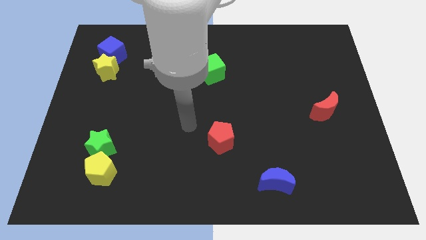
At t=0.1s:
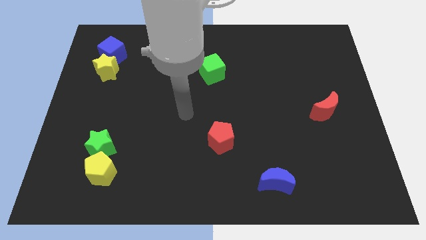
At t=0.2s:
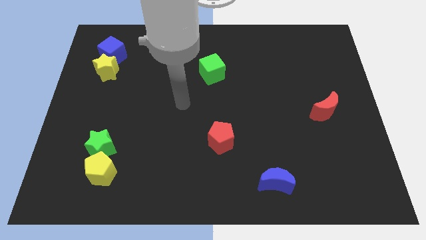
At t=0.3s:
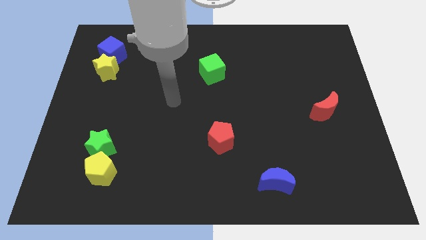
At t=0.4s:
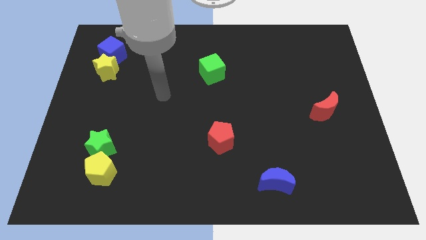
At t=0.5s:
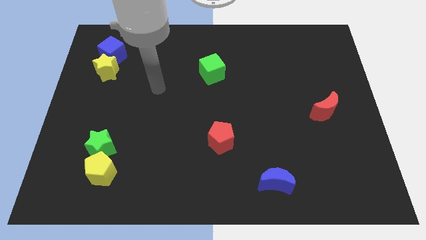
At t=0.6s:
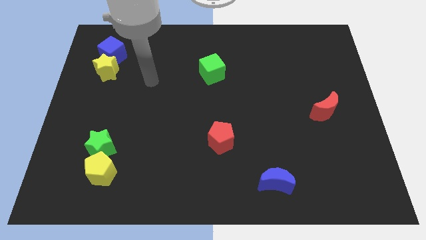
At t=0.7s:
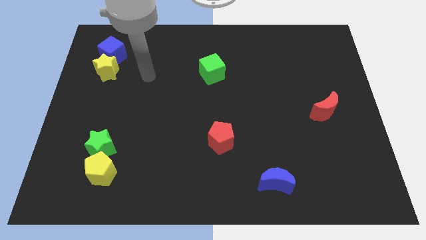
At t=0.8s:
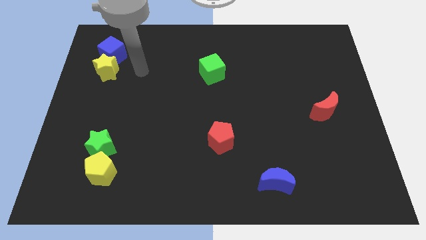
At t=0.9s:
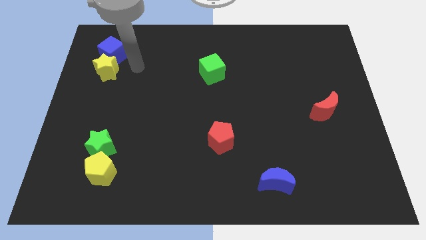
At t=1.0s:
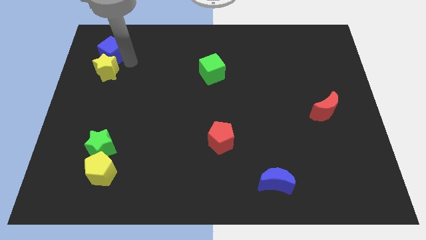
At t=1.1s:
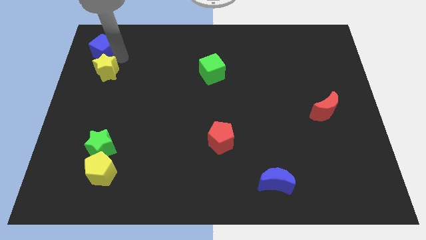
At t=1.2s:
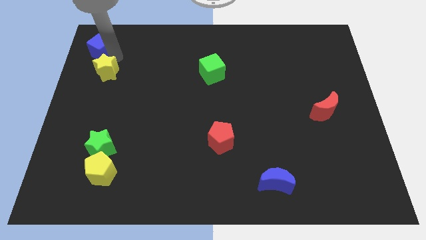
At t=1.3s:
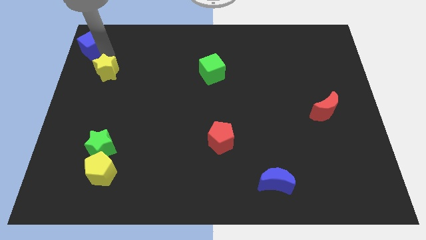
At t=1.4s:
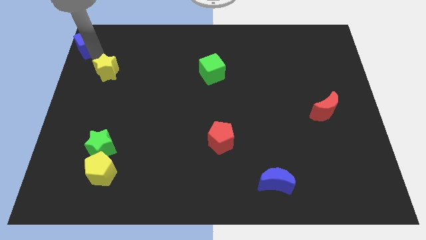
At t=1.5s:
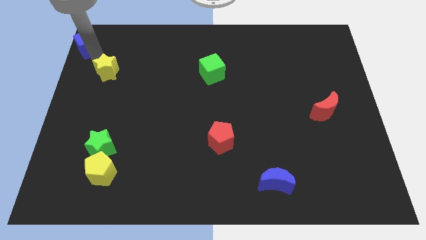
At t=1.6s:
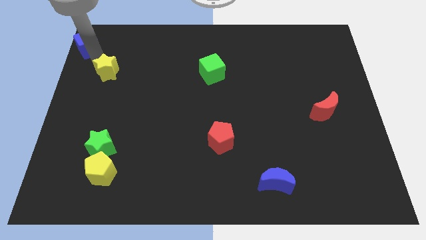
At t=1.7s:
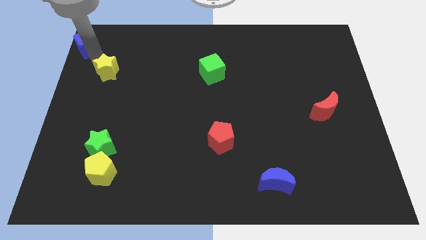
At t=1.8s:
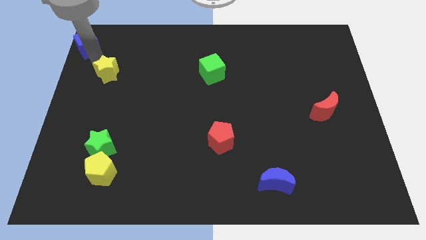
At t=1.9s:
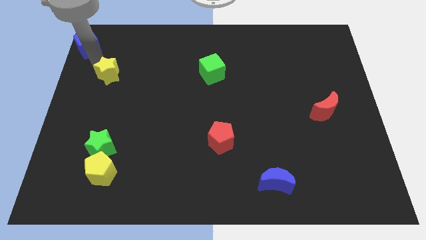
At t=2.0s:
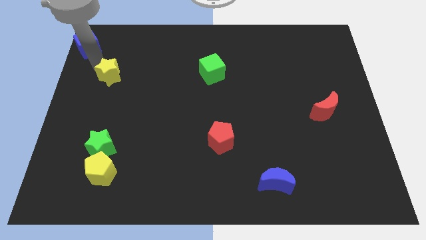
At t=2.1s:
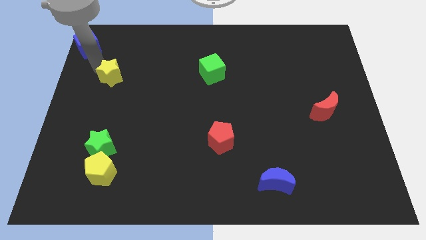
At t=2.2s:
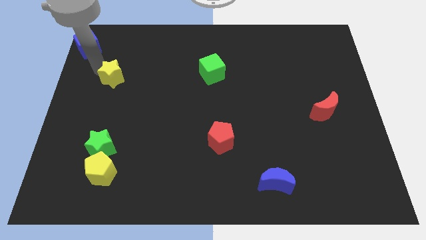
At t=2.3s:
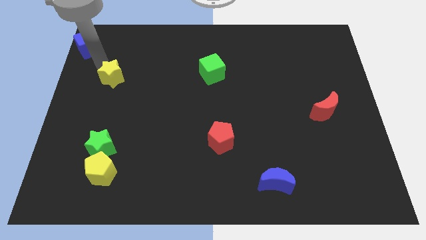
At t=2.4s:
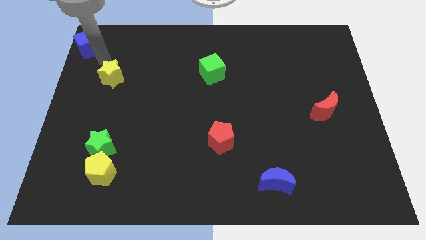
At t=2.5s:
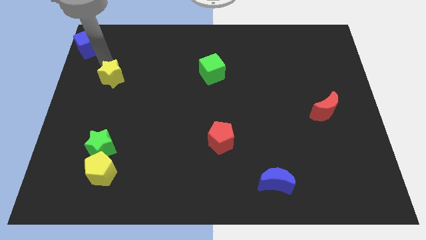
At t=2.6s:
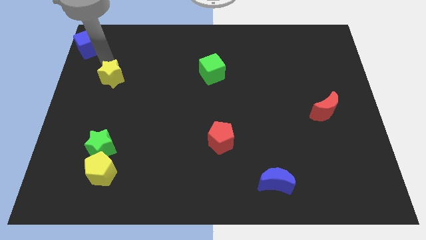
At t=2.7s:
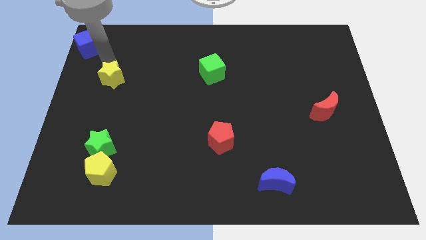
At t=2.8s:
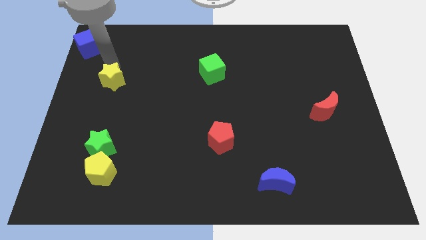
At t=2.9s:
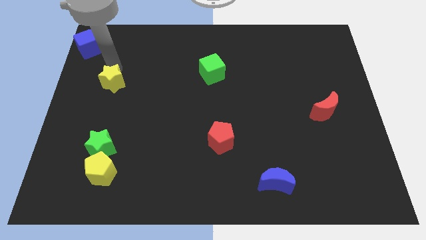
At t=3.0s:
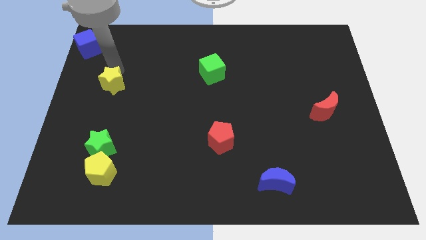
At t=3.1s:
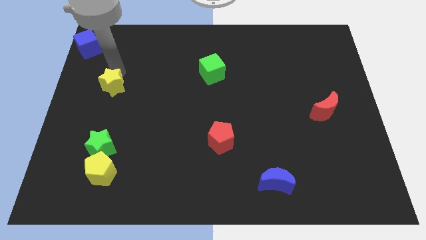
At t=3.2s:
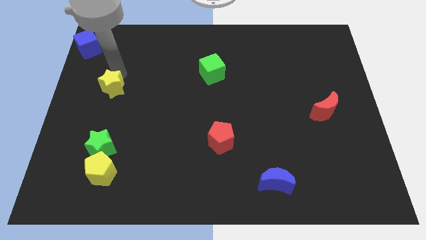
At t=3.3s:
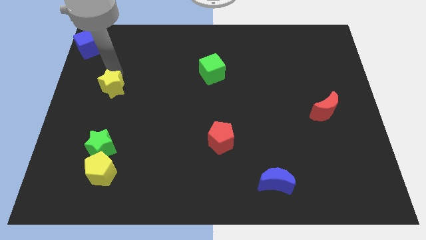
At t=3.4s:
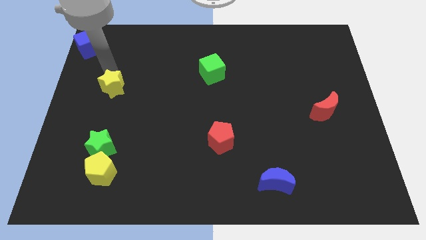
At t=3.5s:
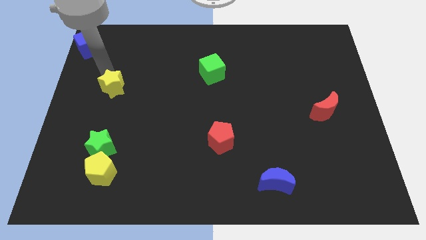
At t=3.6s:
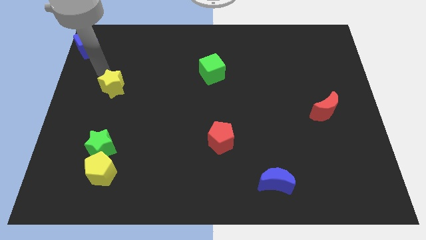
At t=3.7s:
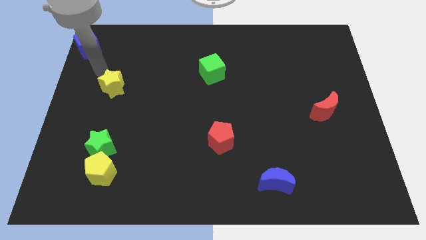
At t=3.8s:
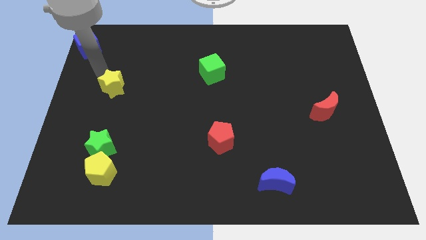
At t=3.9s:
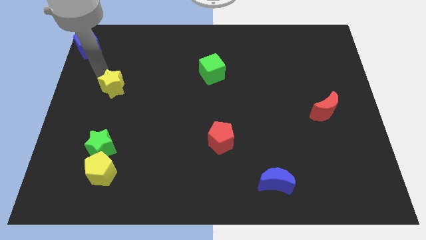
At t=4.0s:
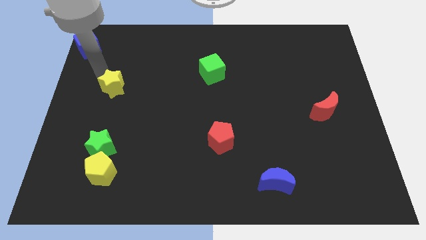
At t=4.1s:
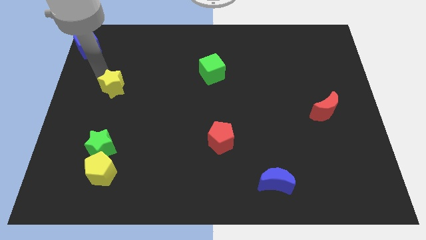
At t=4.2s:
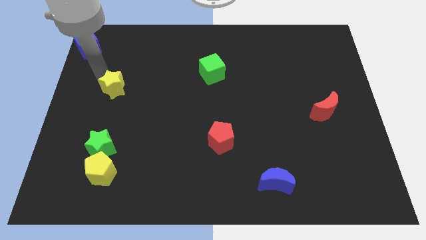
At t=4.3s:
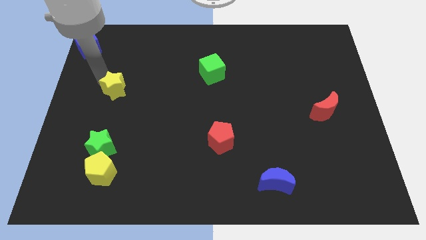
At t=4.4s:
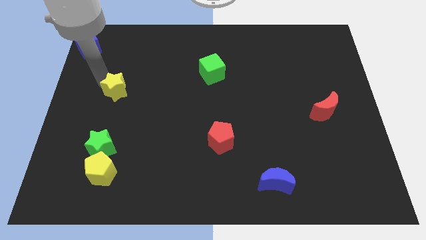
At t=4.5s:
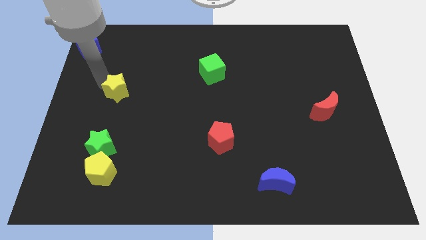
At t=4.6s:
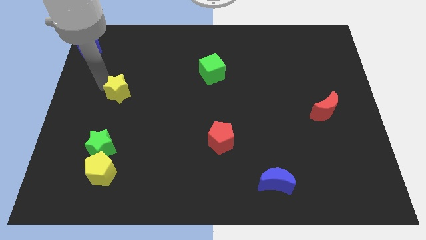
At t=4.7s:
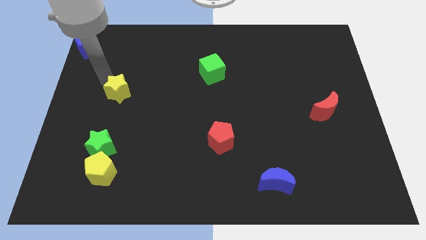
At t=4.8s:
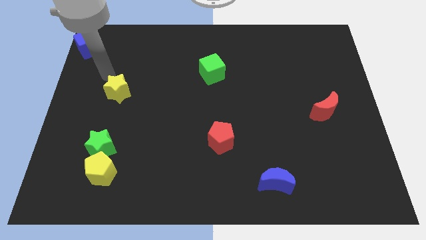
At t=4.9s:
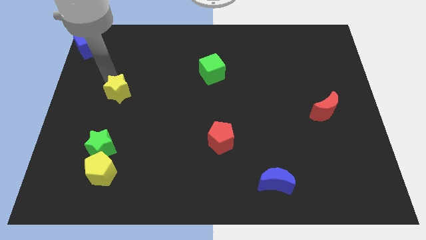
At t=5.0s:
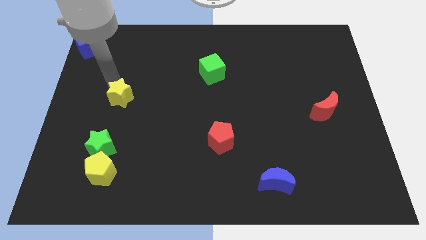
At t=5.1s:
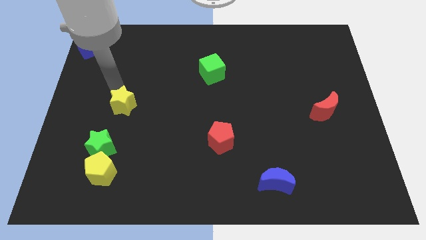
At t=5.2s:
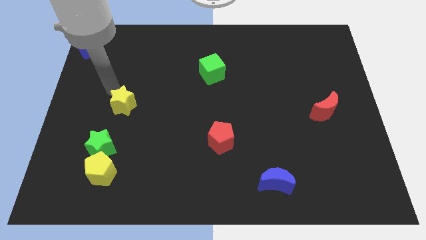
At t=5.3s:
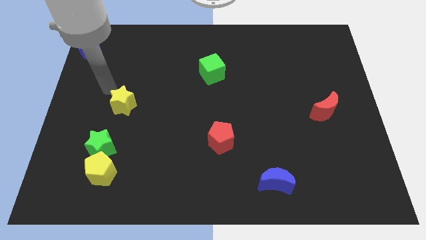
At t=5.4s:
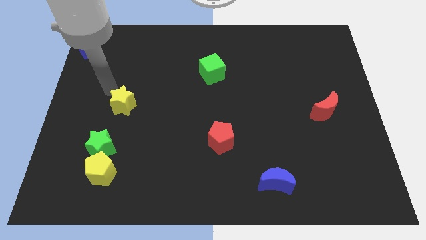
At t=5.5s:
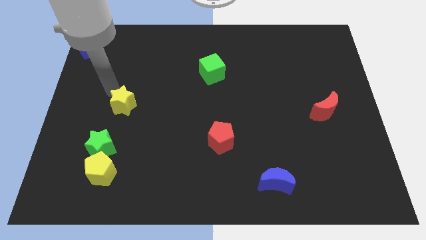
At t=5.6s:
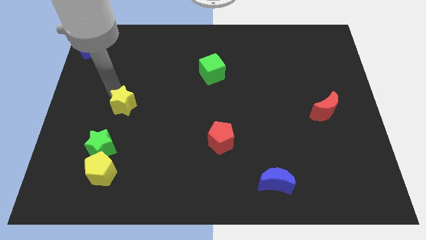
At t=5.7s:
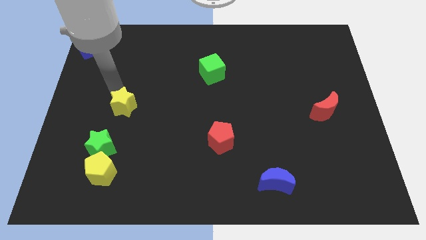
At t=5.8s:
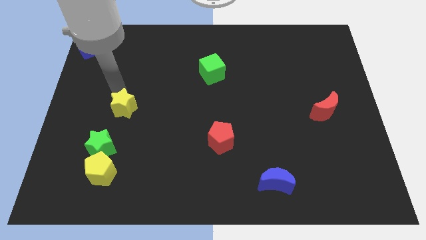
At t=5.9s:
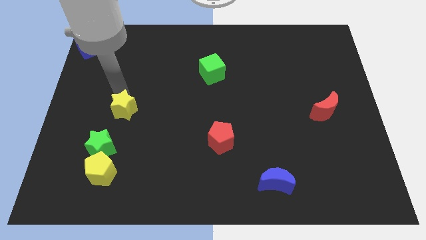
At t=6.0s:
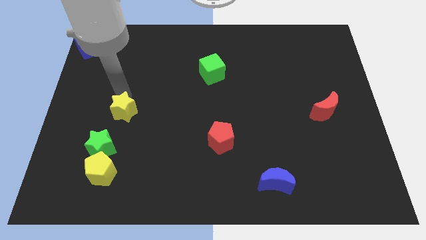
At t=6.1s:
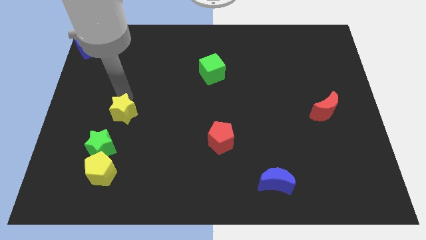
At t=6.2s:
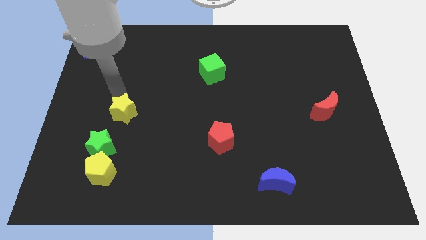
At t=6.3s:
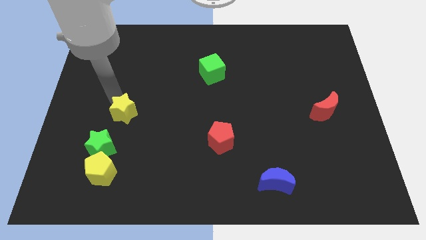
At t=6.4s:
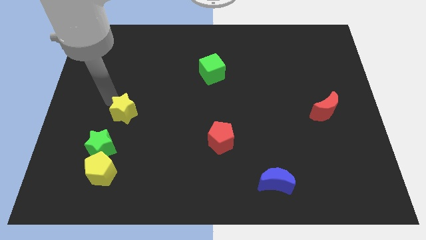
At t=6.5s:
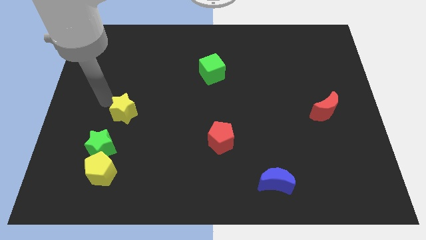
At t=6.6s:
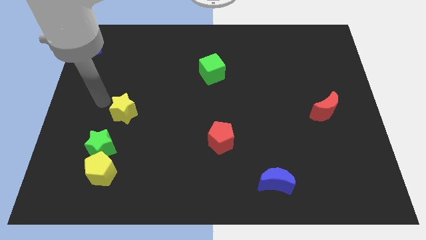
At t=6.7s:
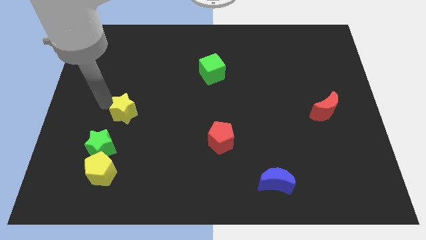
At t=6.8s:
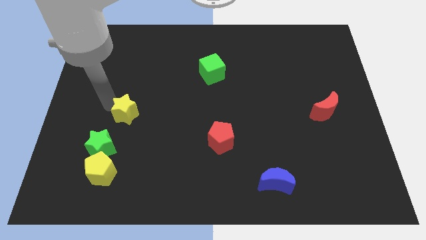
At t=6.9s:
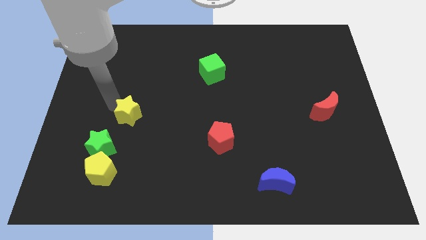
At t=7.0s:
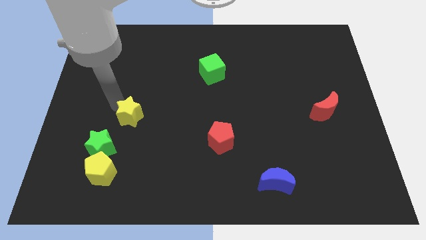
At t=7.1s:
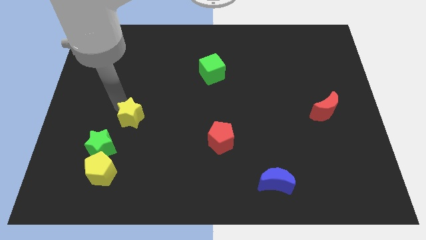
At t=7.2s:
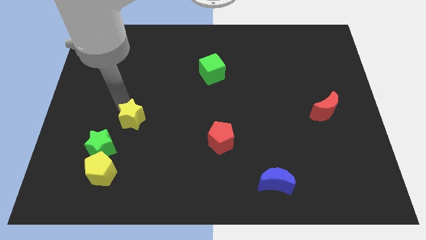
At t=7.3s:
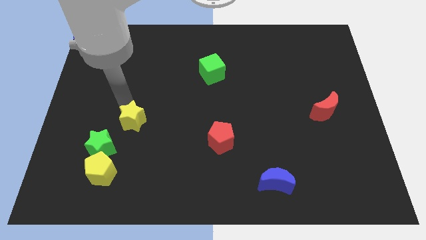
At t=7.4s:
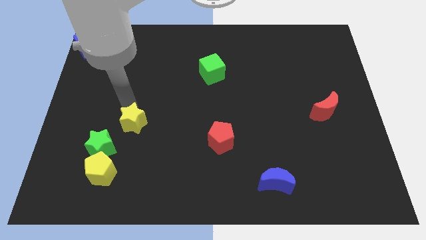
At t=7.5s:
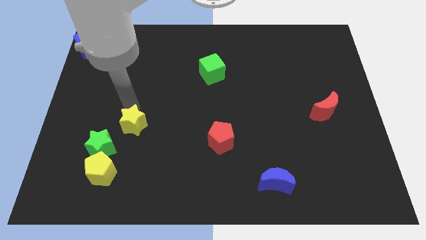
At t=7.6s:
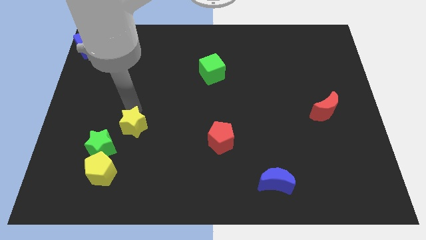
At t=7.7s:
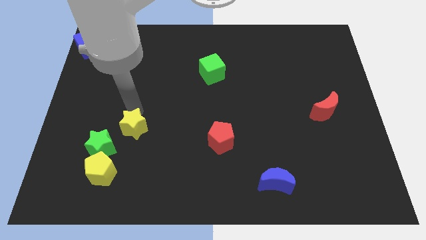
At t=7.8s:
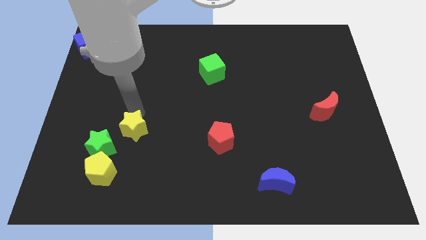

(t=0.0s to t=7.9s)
push the yellow star to the right of the green star
